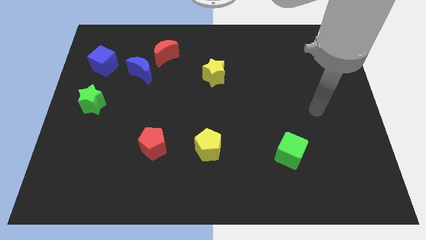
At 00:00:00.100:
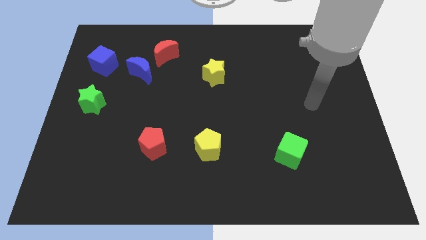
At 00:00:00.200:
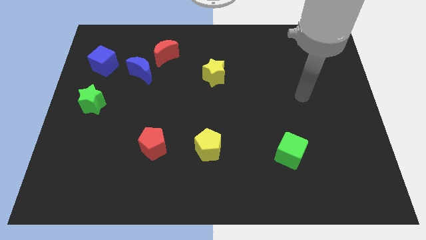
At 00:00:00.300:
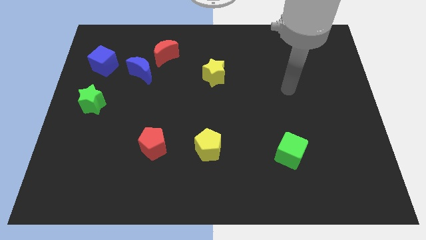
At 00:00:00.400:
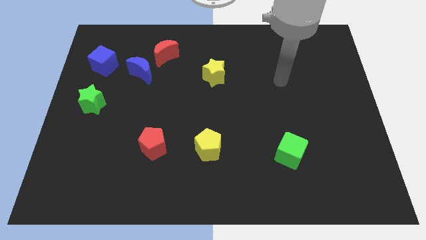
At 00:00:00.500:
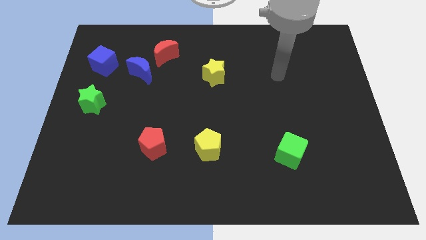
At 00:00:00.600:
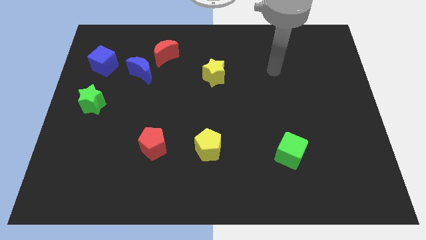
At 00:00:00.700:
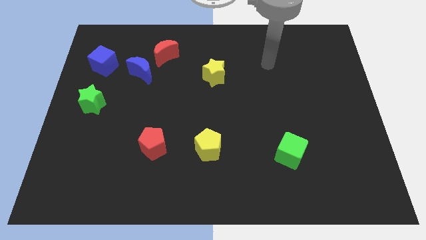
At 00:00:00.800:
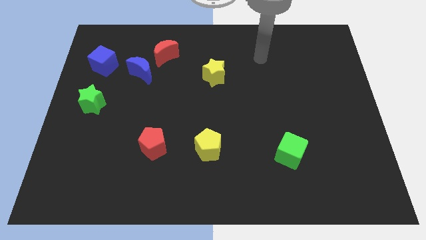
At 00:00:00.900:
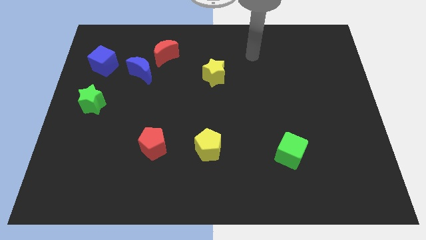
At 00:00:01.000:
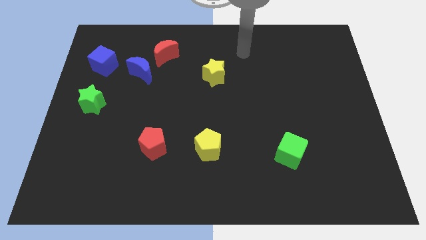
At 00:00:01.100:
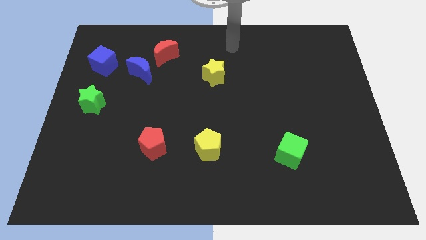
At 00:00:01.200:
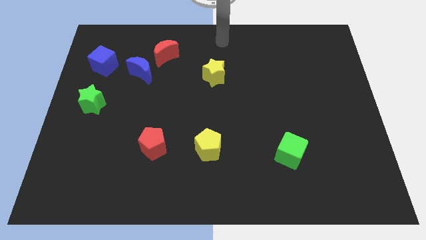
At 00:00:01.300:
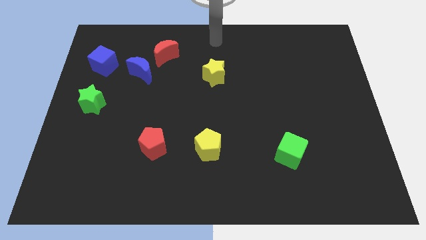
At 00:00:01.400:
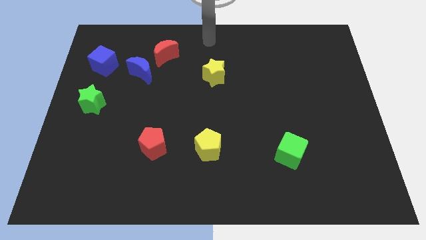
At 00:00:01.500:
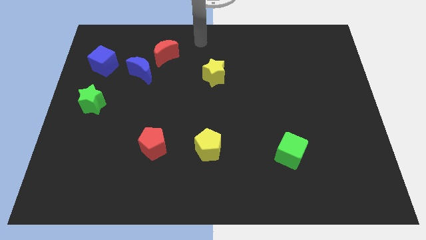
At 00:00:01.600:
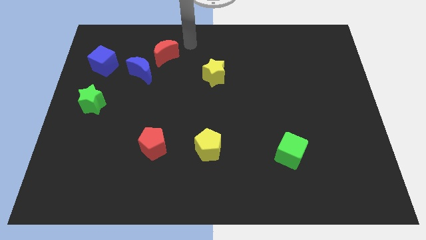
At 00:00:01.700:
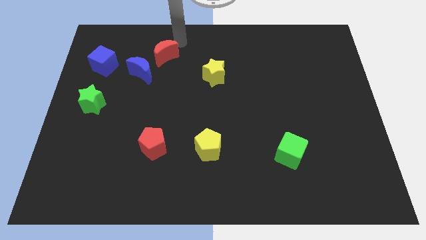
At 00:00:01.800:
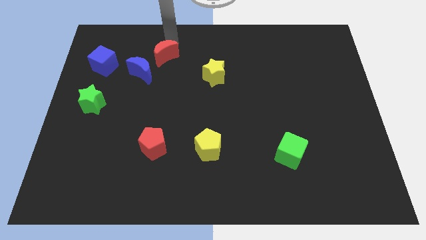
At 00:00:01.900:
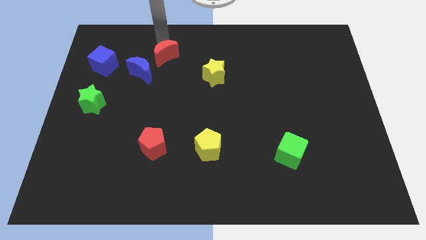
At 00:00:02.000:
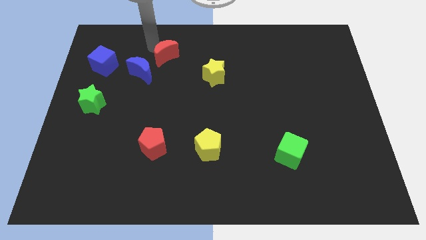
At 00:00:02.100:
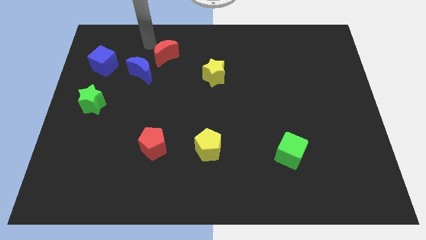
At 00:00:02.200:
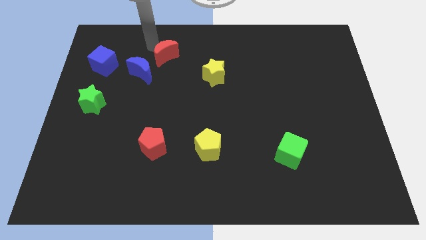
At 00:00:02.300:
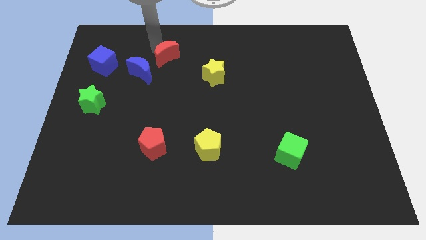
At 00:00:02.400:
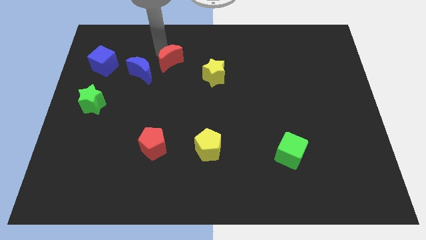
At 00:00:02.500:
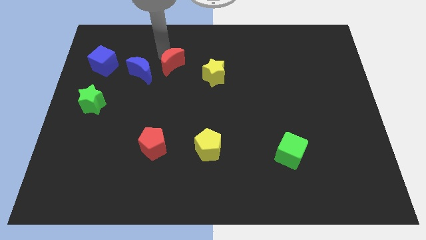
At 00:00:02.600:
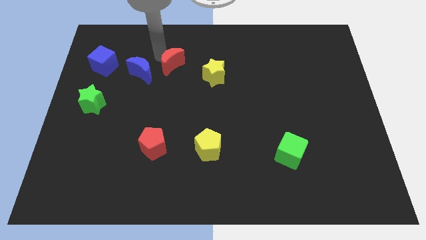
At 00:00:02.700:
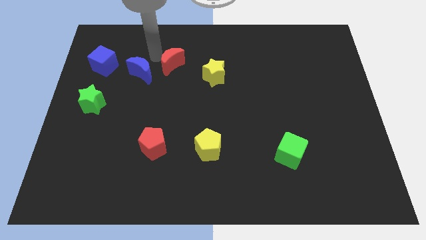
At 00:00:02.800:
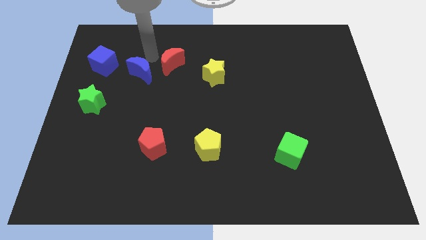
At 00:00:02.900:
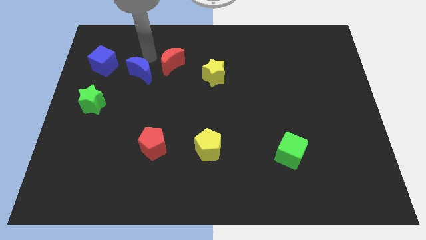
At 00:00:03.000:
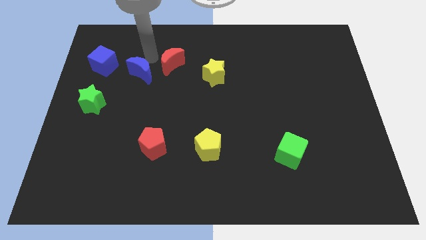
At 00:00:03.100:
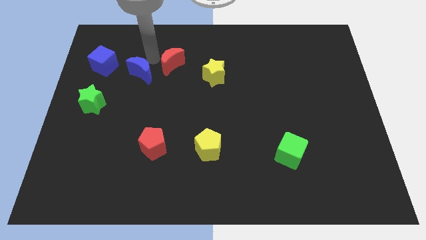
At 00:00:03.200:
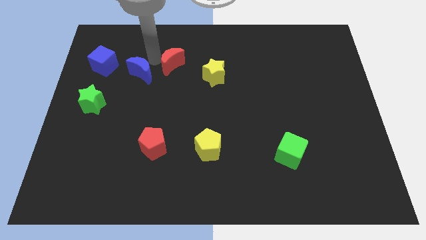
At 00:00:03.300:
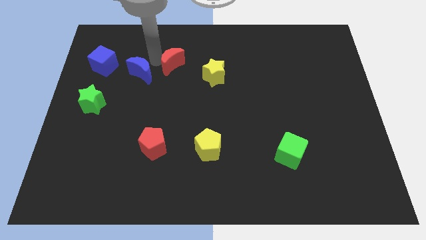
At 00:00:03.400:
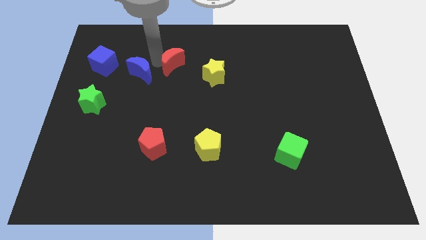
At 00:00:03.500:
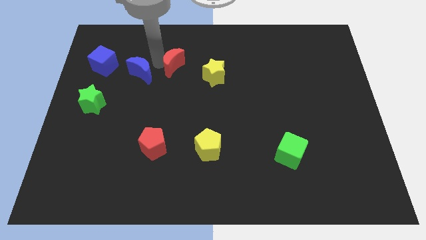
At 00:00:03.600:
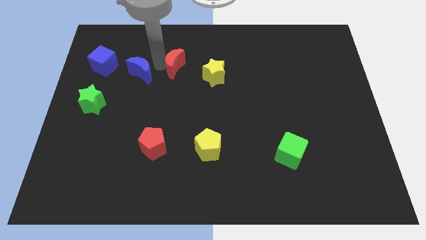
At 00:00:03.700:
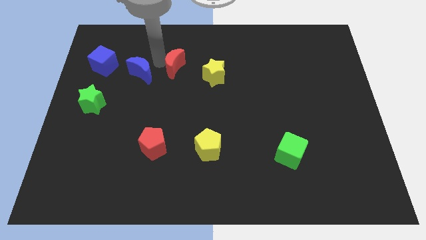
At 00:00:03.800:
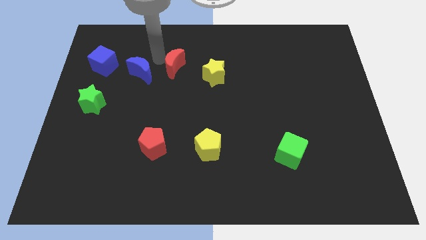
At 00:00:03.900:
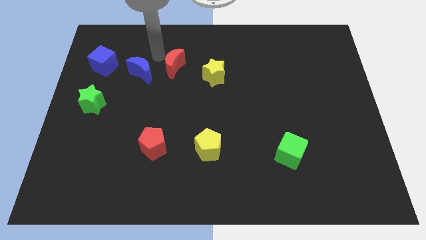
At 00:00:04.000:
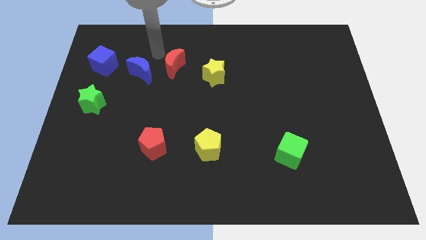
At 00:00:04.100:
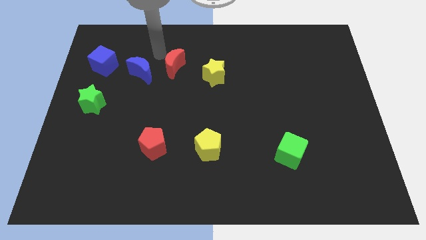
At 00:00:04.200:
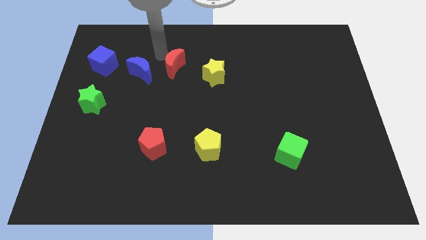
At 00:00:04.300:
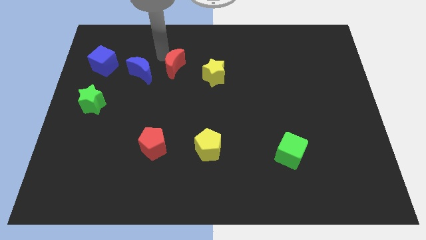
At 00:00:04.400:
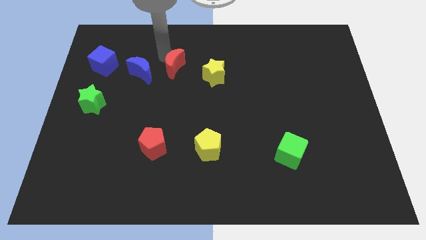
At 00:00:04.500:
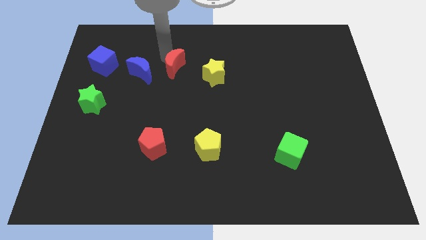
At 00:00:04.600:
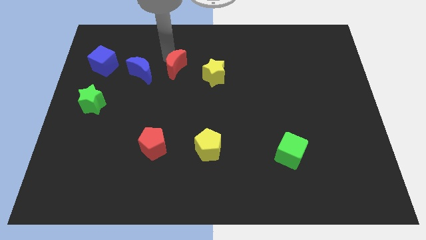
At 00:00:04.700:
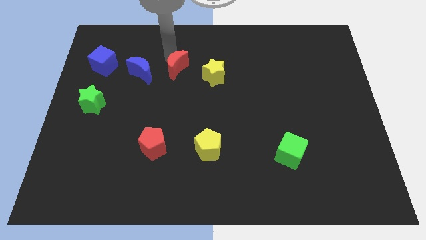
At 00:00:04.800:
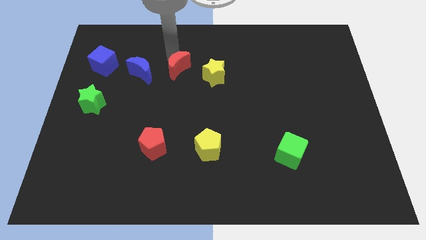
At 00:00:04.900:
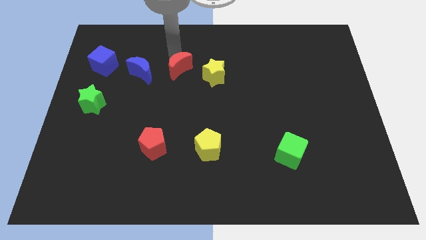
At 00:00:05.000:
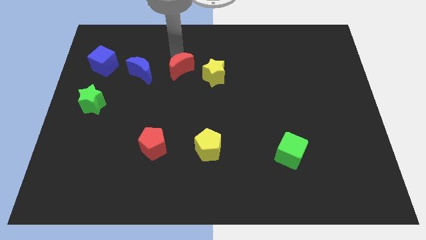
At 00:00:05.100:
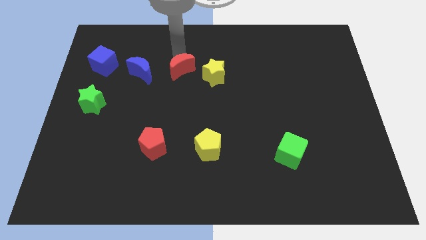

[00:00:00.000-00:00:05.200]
push the red moon a little down and right

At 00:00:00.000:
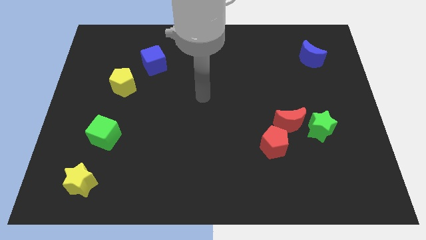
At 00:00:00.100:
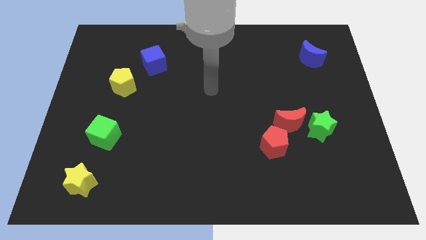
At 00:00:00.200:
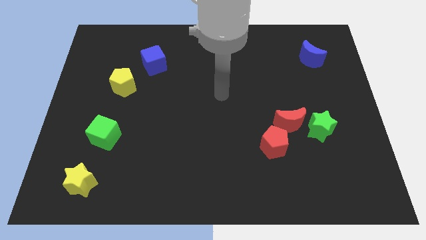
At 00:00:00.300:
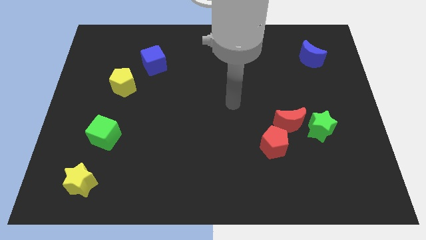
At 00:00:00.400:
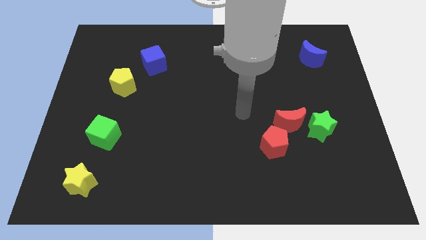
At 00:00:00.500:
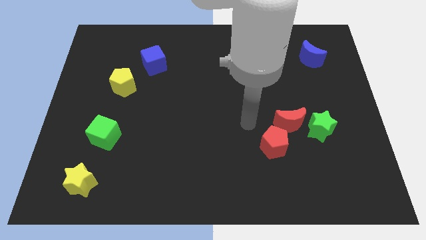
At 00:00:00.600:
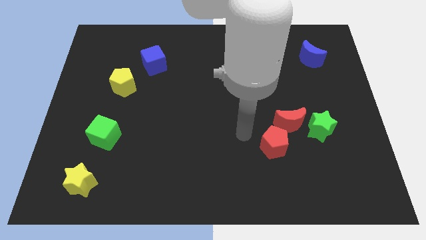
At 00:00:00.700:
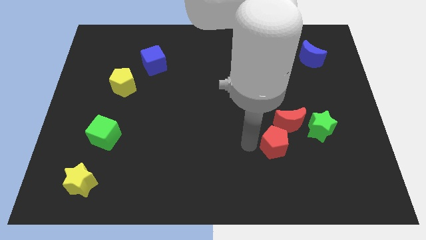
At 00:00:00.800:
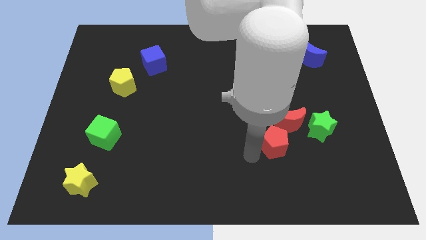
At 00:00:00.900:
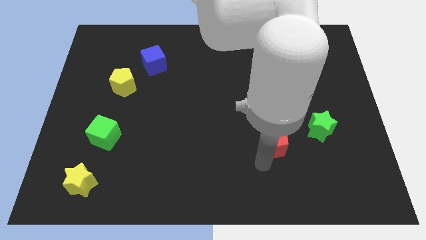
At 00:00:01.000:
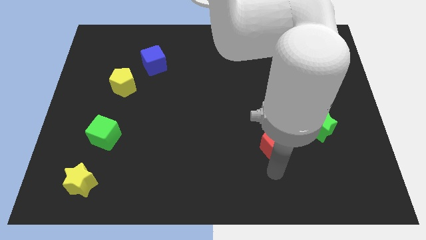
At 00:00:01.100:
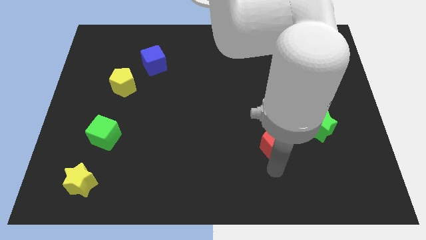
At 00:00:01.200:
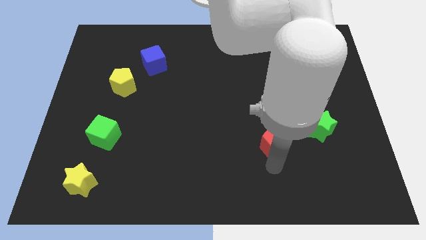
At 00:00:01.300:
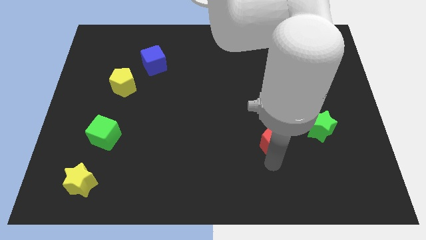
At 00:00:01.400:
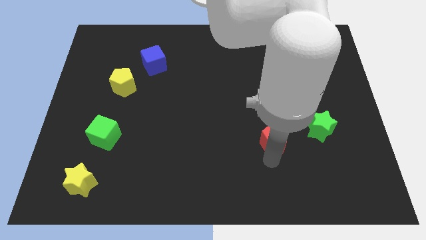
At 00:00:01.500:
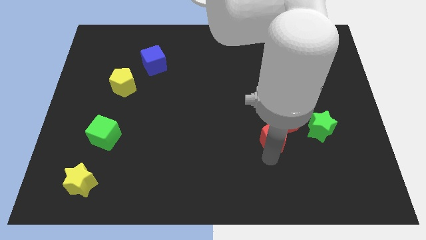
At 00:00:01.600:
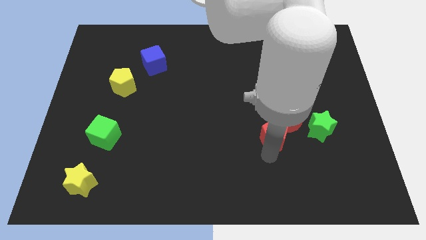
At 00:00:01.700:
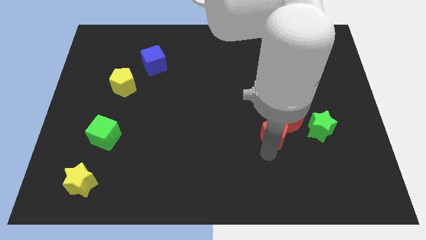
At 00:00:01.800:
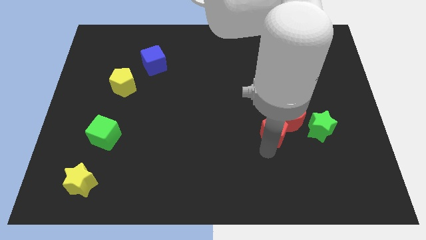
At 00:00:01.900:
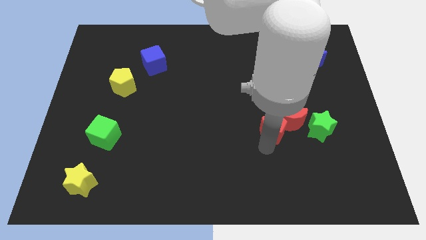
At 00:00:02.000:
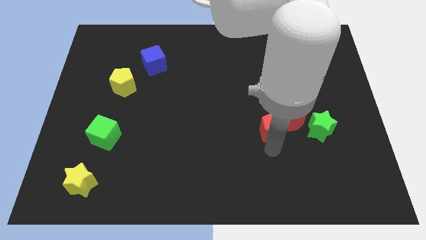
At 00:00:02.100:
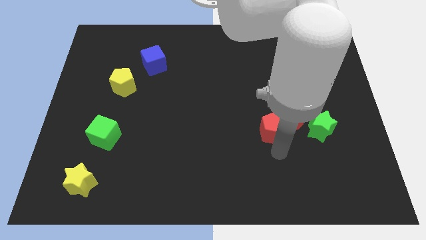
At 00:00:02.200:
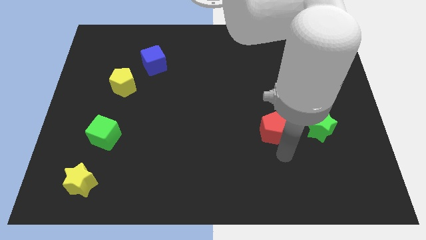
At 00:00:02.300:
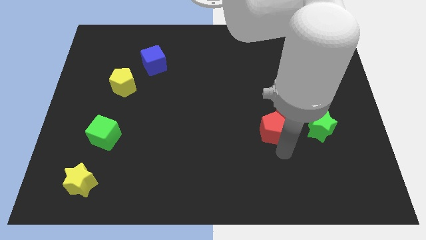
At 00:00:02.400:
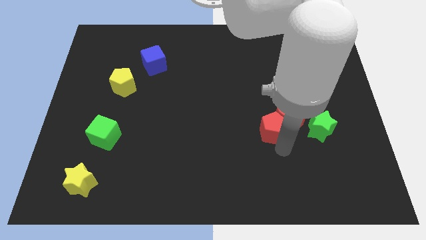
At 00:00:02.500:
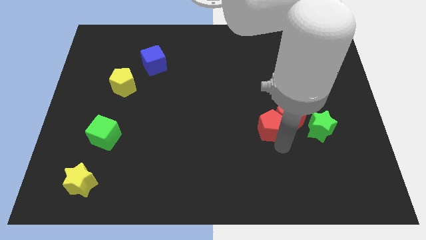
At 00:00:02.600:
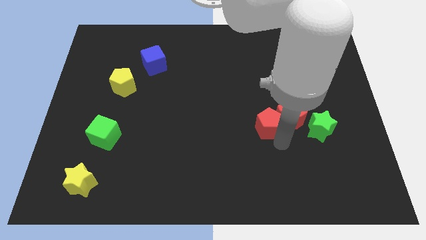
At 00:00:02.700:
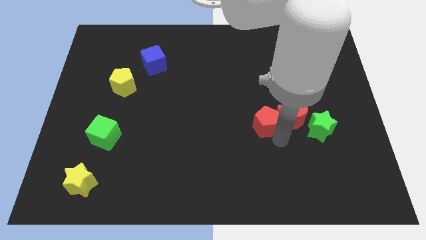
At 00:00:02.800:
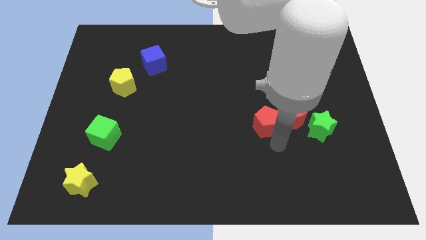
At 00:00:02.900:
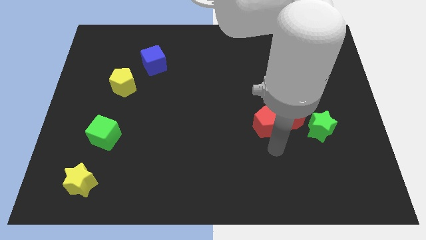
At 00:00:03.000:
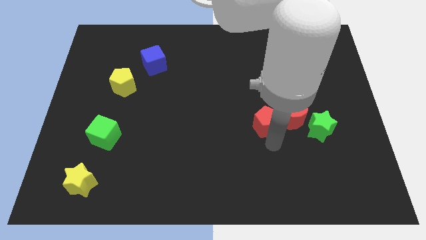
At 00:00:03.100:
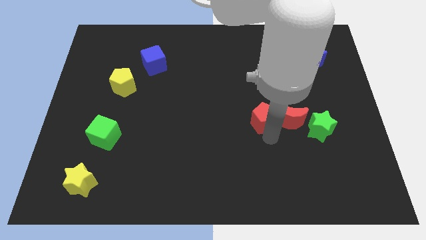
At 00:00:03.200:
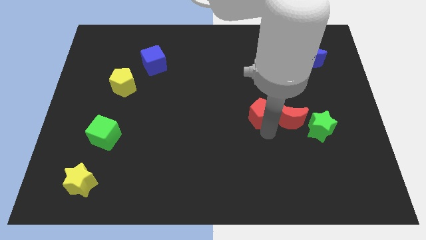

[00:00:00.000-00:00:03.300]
slightly move the red pentagon up
